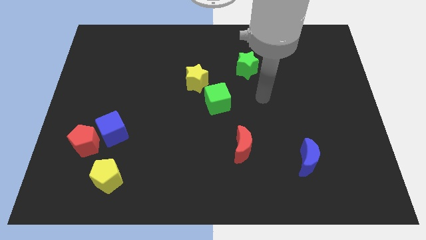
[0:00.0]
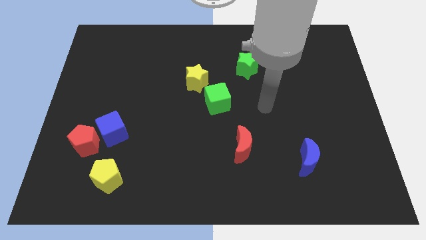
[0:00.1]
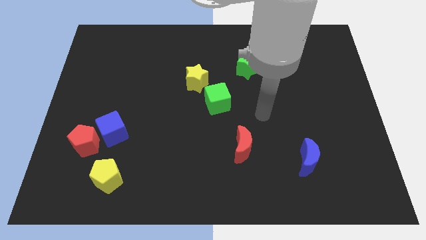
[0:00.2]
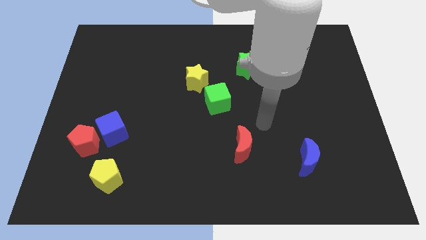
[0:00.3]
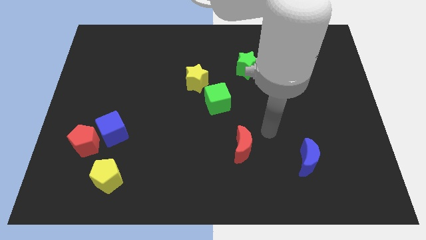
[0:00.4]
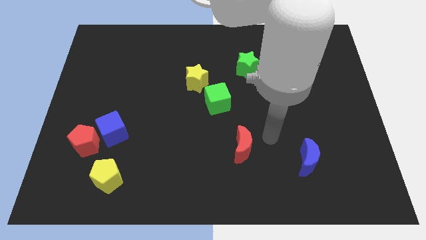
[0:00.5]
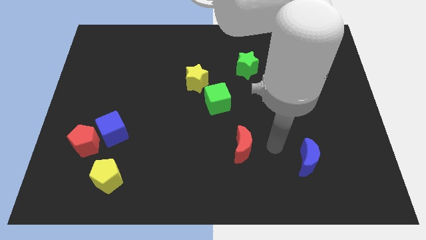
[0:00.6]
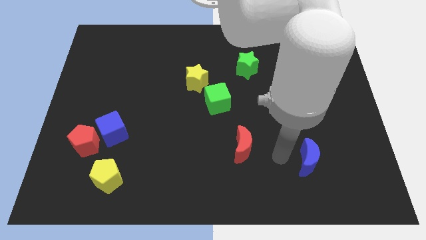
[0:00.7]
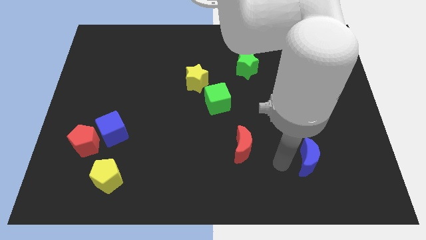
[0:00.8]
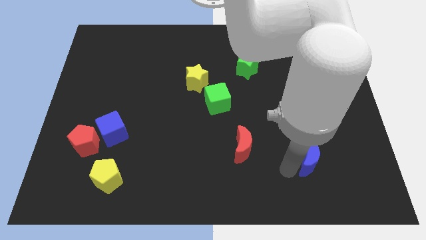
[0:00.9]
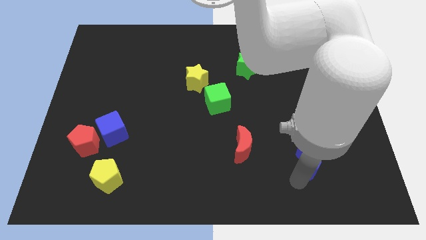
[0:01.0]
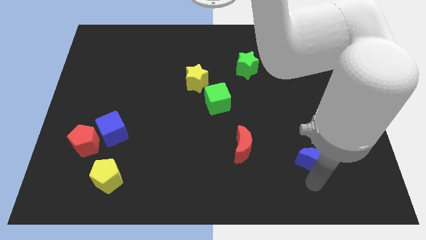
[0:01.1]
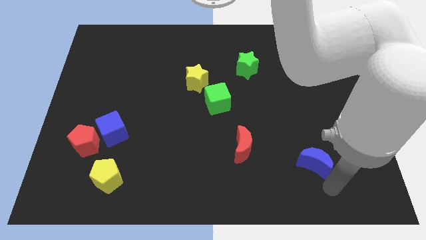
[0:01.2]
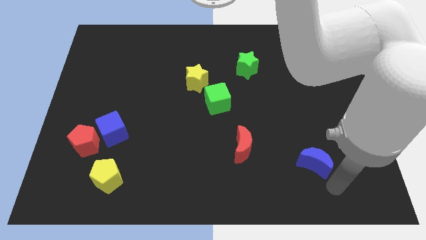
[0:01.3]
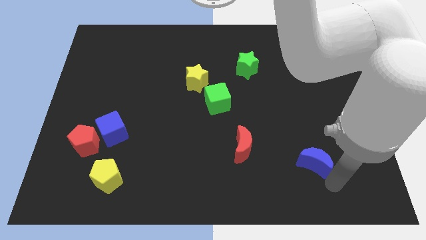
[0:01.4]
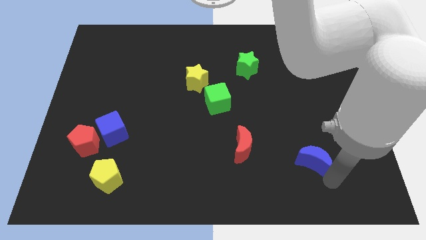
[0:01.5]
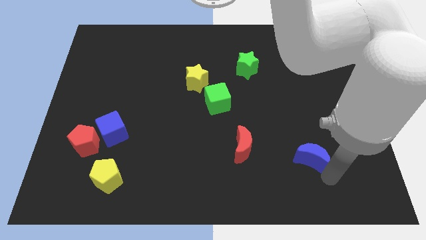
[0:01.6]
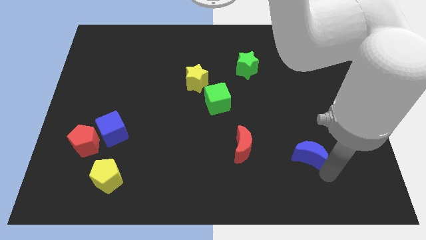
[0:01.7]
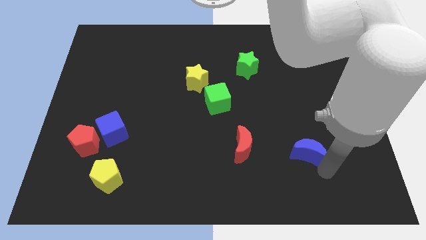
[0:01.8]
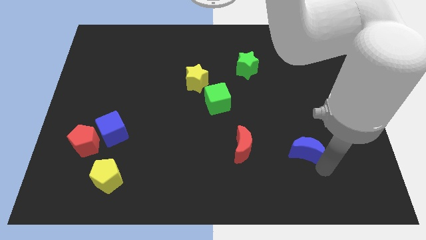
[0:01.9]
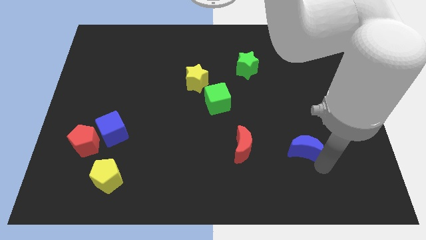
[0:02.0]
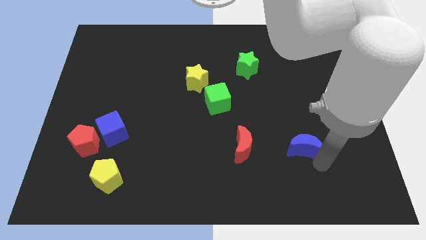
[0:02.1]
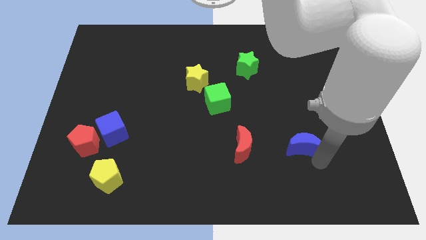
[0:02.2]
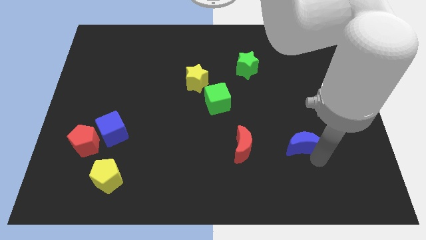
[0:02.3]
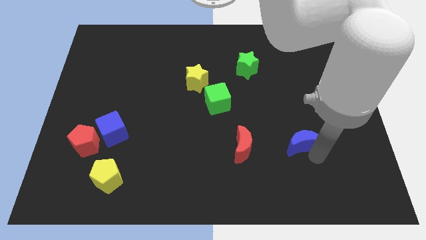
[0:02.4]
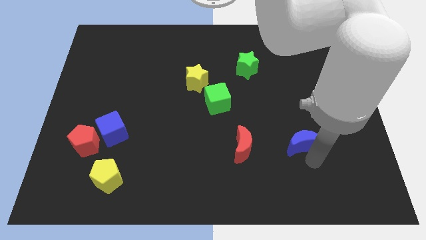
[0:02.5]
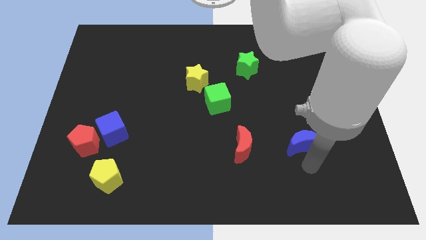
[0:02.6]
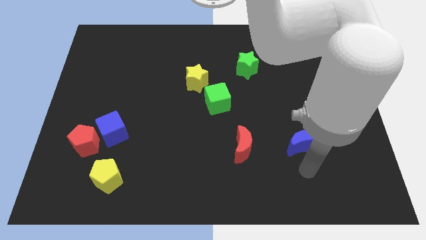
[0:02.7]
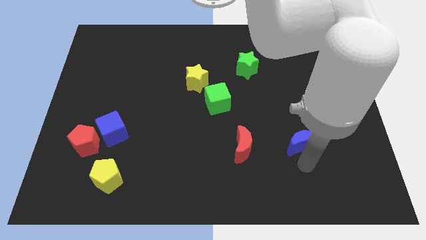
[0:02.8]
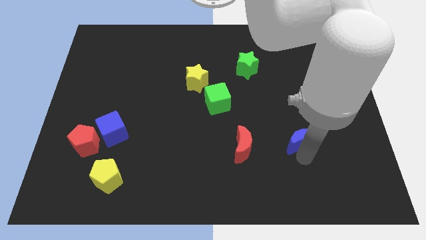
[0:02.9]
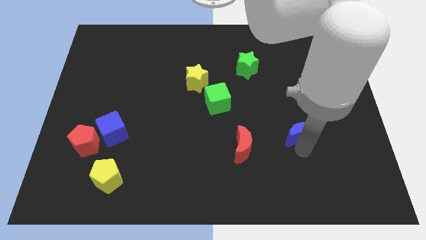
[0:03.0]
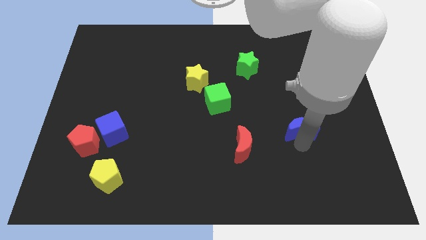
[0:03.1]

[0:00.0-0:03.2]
slightly push the blue moon upwards

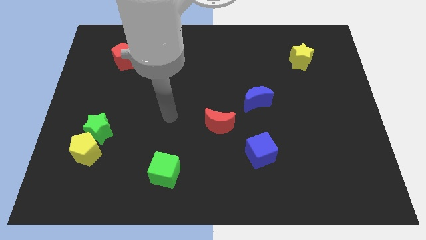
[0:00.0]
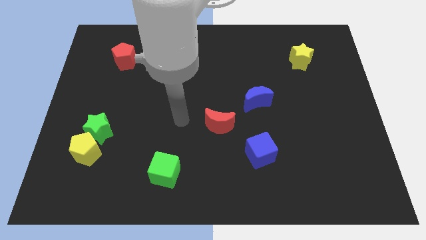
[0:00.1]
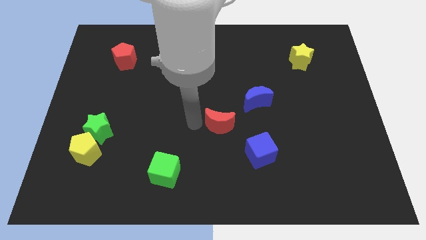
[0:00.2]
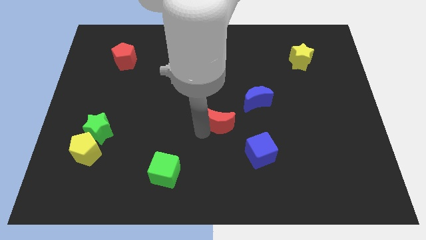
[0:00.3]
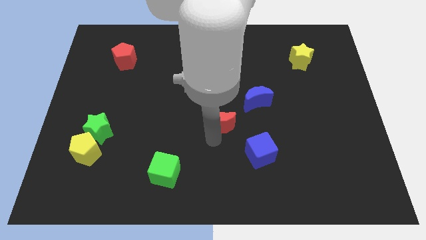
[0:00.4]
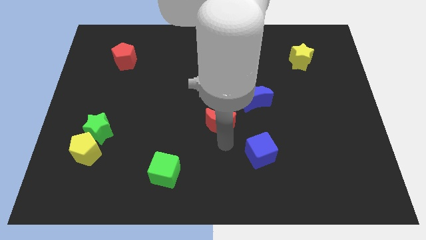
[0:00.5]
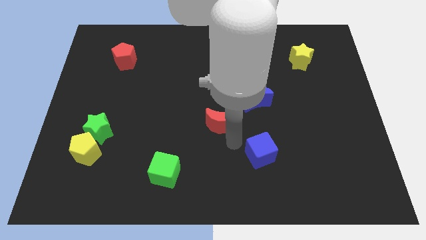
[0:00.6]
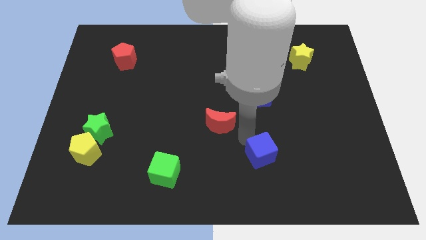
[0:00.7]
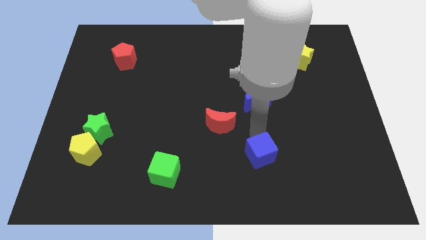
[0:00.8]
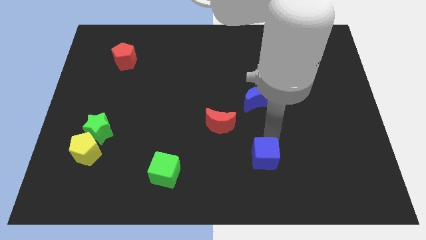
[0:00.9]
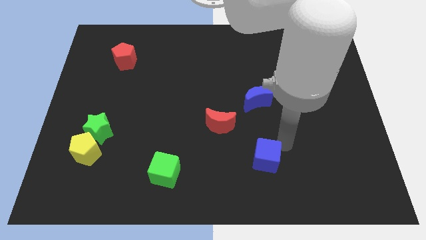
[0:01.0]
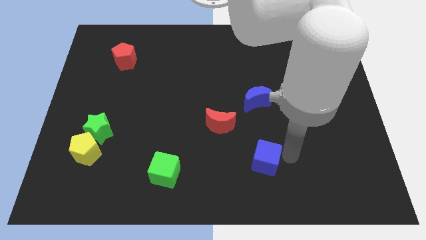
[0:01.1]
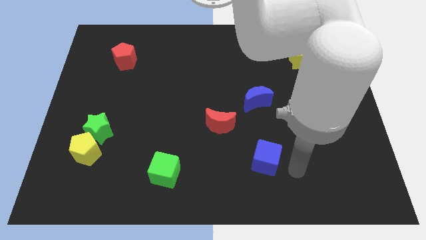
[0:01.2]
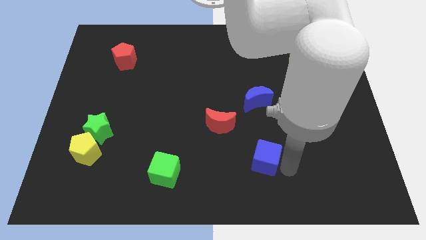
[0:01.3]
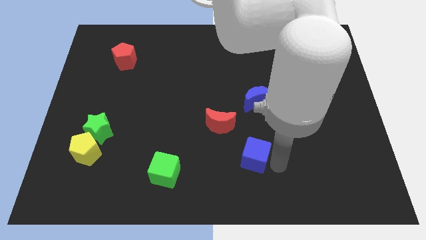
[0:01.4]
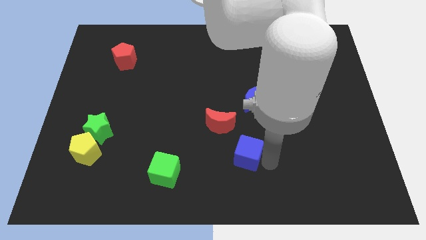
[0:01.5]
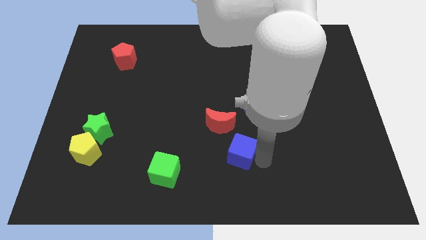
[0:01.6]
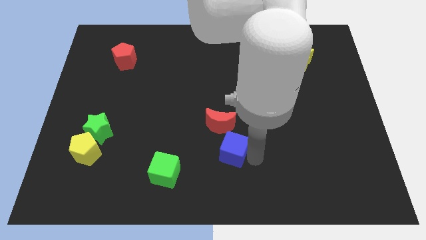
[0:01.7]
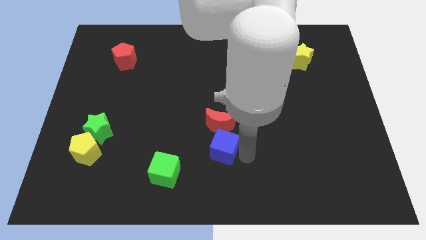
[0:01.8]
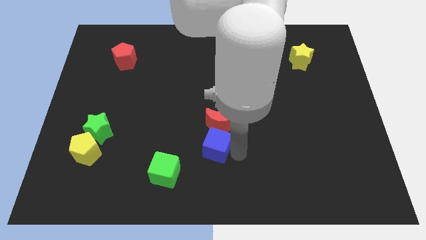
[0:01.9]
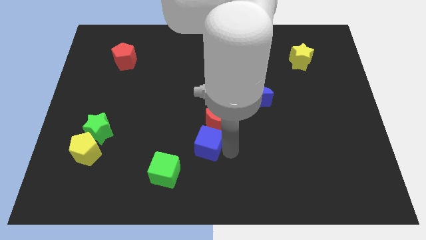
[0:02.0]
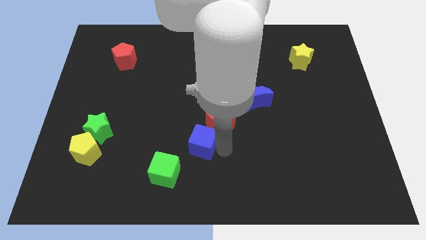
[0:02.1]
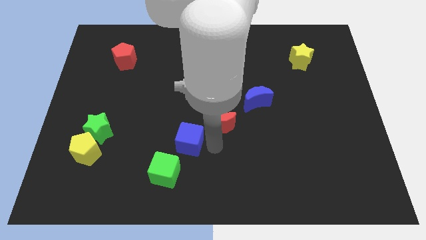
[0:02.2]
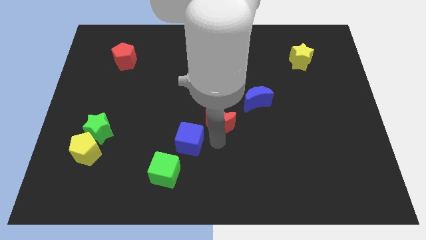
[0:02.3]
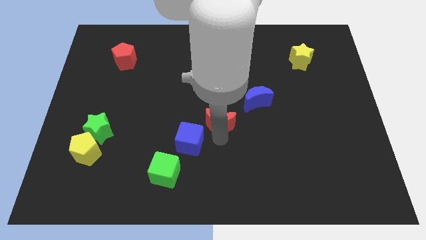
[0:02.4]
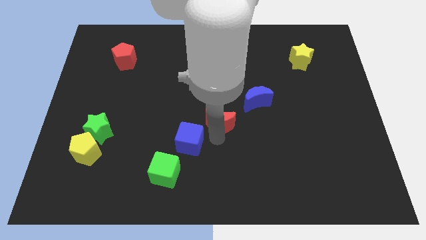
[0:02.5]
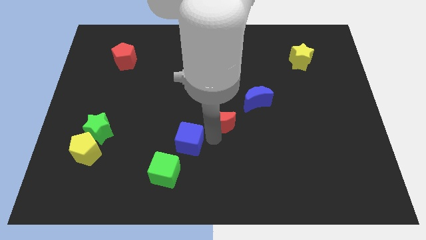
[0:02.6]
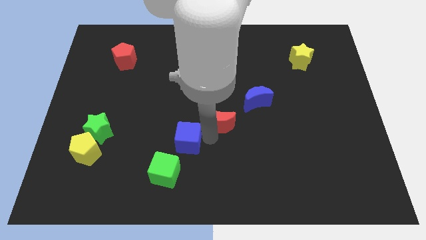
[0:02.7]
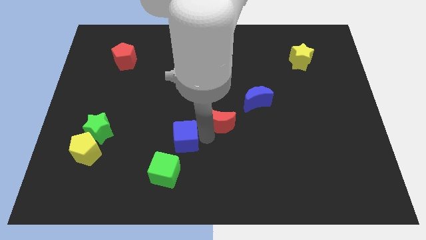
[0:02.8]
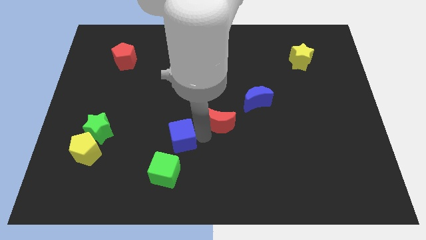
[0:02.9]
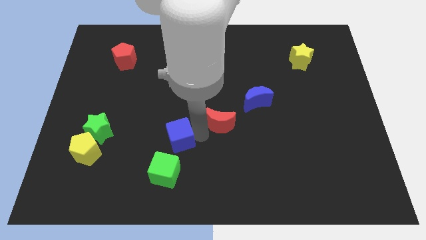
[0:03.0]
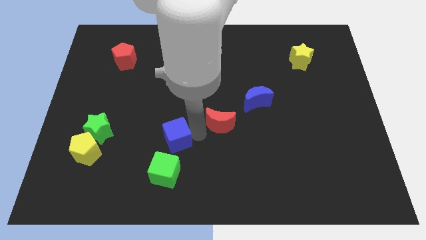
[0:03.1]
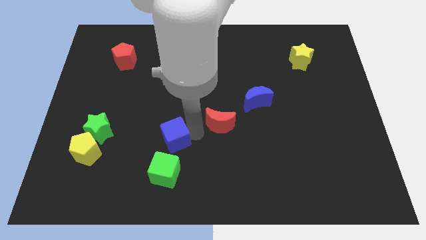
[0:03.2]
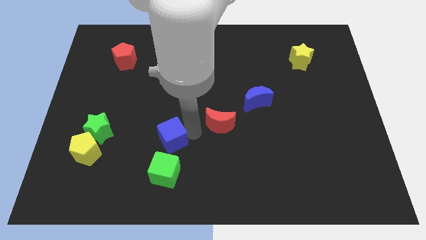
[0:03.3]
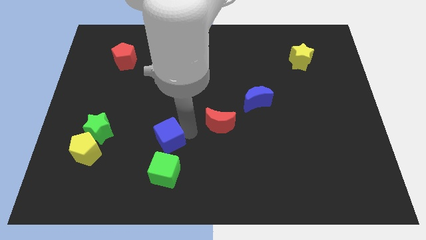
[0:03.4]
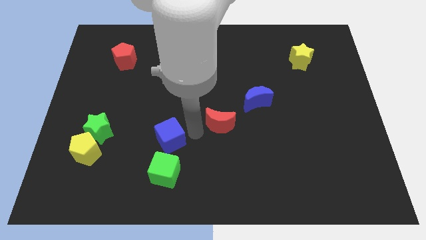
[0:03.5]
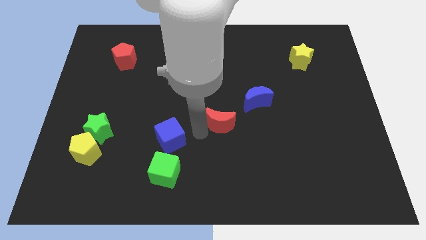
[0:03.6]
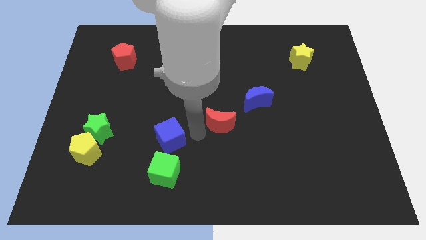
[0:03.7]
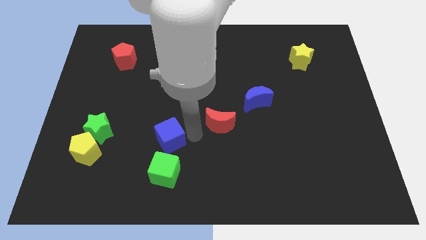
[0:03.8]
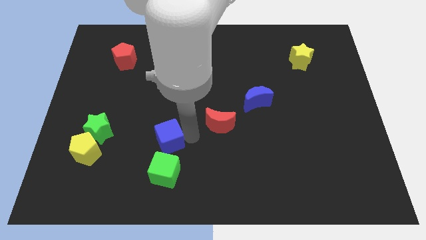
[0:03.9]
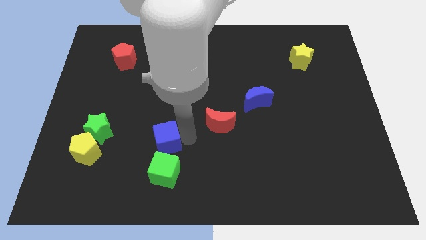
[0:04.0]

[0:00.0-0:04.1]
push the blue cube to the left

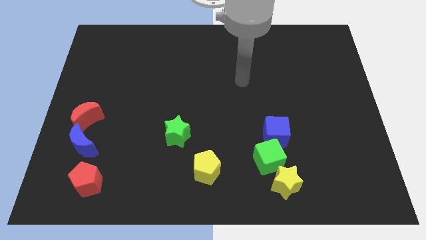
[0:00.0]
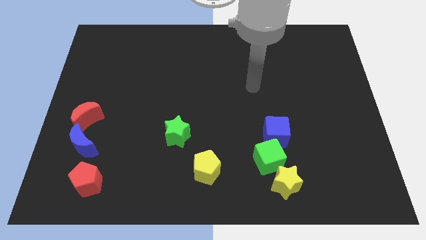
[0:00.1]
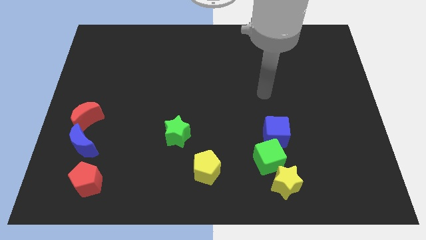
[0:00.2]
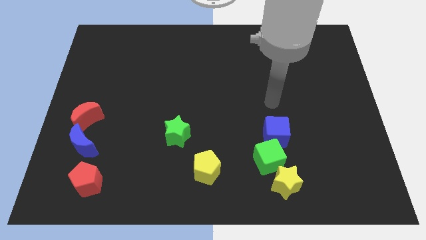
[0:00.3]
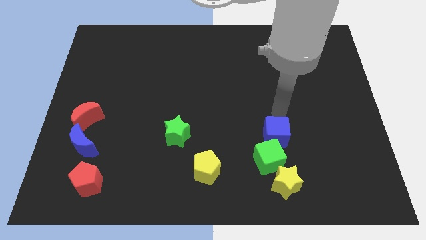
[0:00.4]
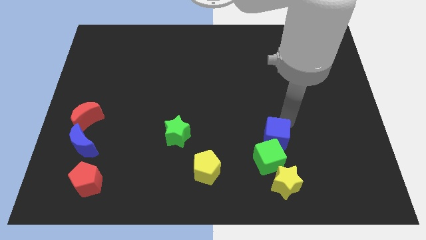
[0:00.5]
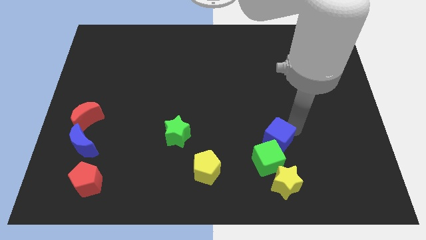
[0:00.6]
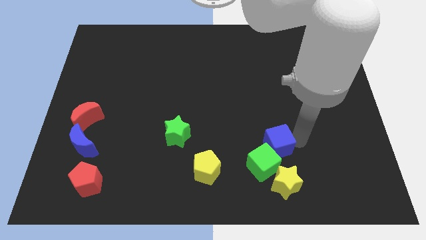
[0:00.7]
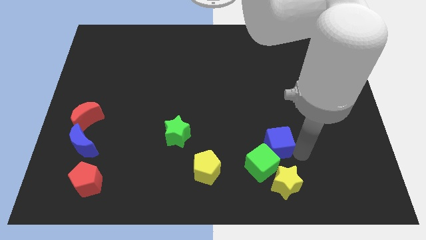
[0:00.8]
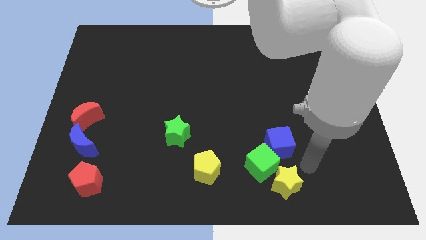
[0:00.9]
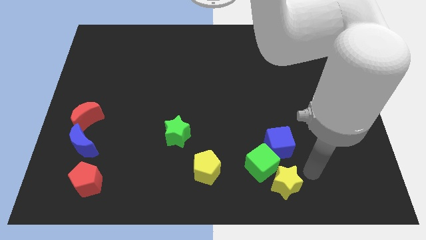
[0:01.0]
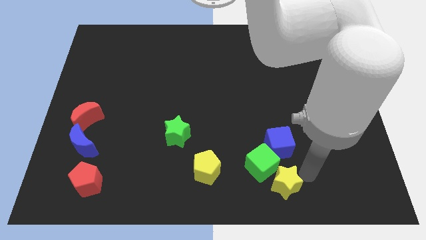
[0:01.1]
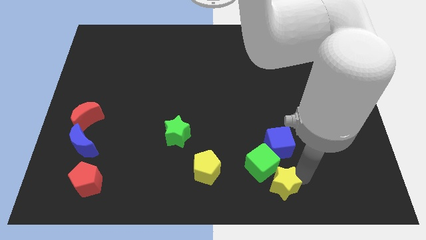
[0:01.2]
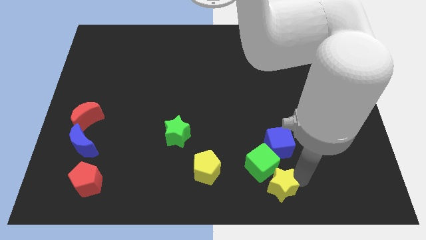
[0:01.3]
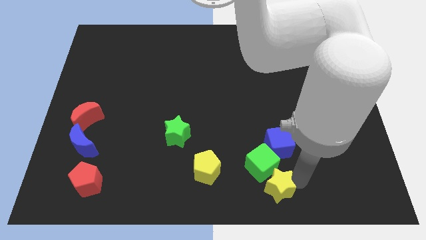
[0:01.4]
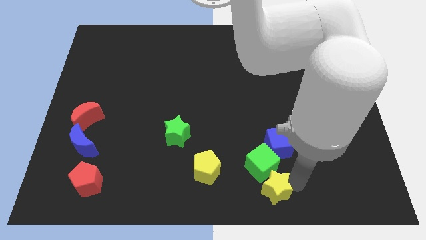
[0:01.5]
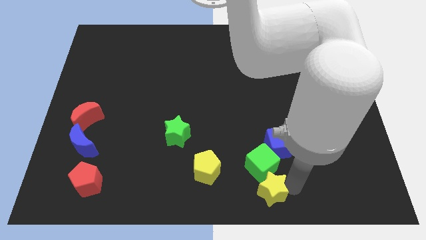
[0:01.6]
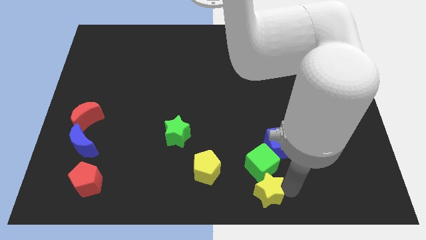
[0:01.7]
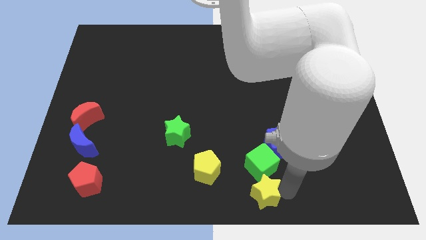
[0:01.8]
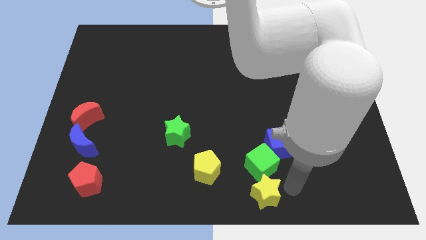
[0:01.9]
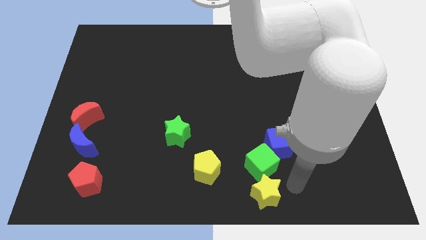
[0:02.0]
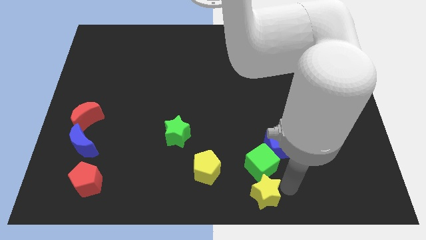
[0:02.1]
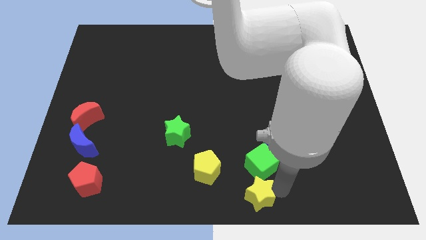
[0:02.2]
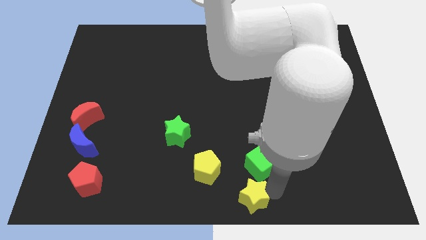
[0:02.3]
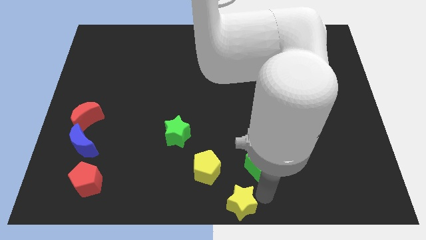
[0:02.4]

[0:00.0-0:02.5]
slightly slide the yellow star to the left
